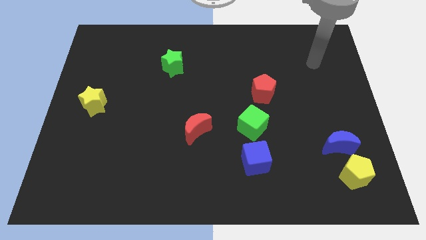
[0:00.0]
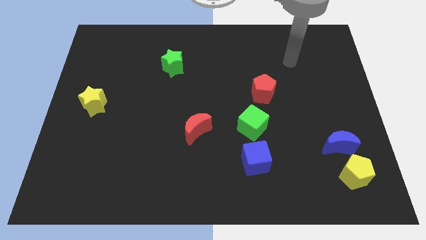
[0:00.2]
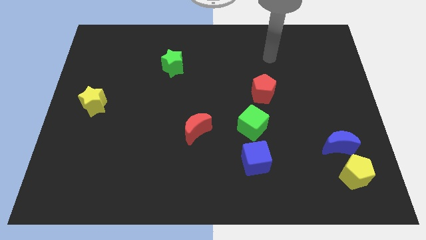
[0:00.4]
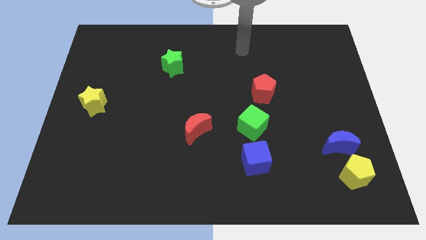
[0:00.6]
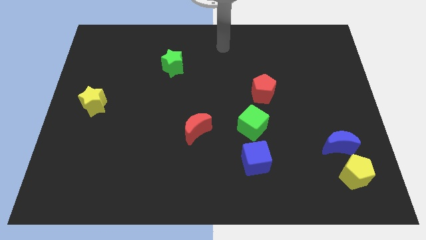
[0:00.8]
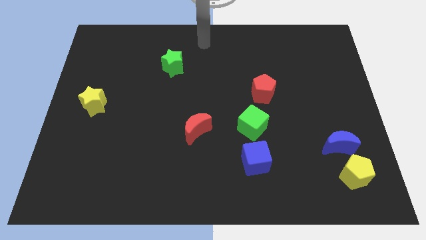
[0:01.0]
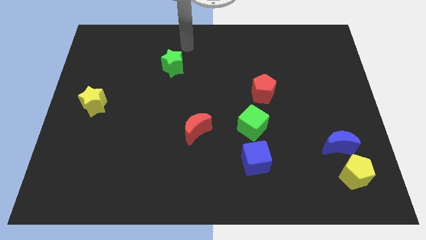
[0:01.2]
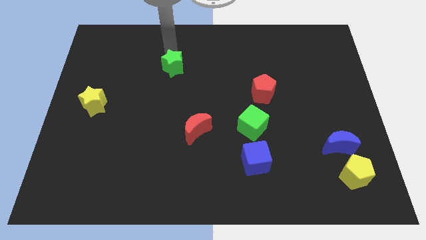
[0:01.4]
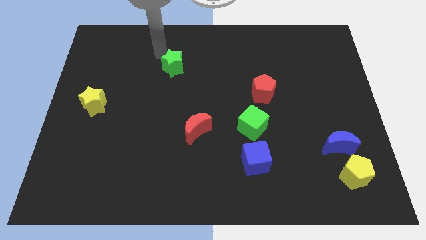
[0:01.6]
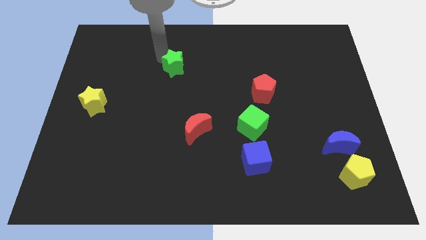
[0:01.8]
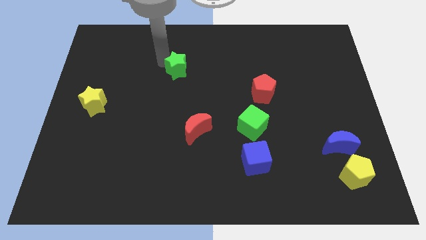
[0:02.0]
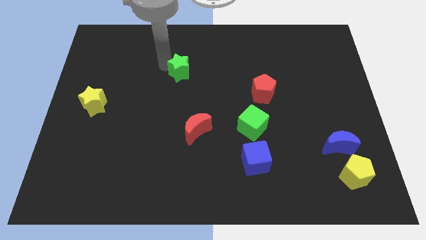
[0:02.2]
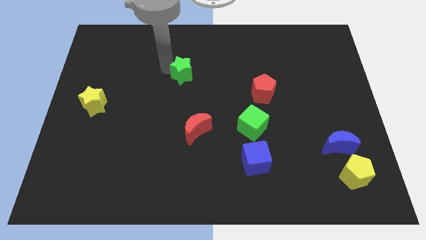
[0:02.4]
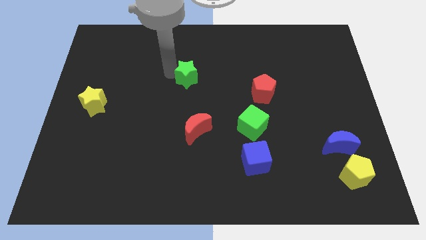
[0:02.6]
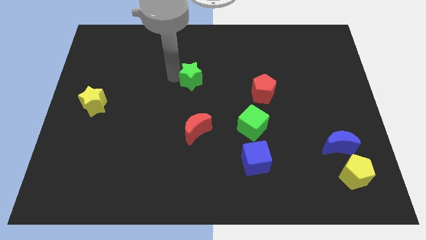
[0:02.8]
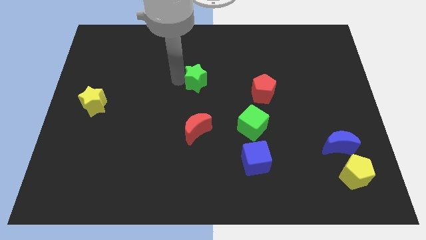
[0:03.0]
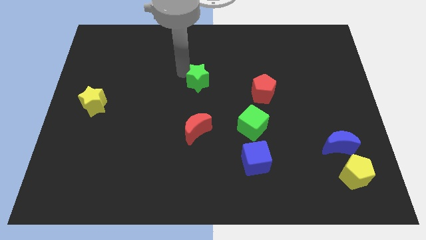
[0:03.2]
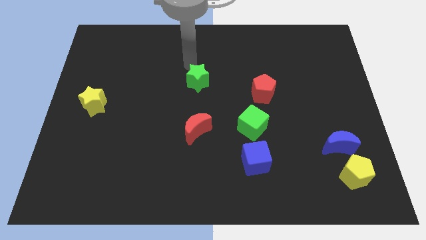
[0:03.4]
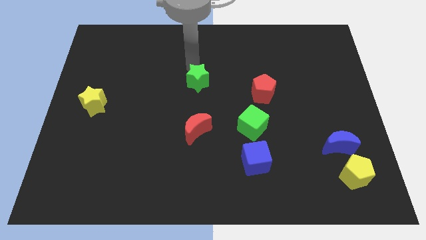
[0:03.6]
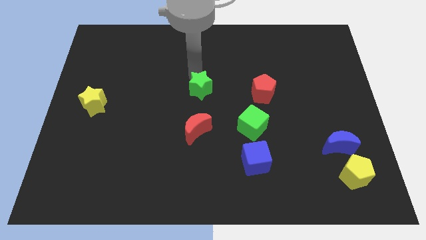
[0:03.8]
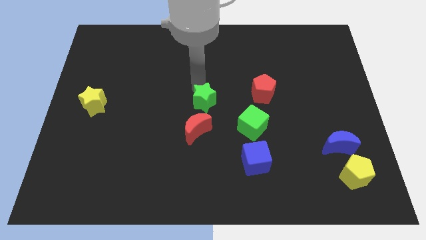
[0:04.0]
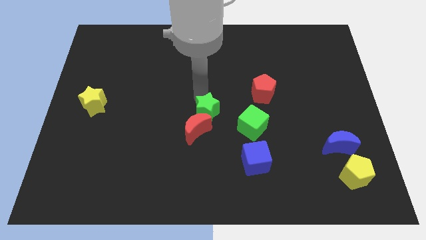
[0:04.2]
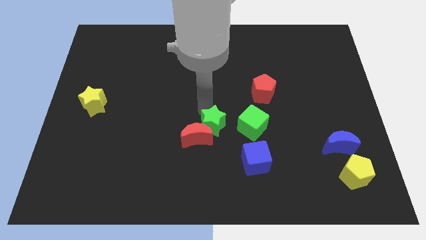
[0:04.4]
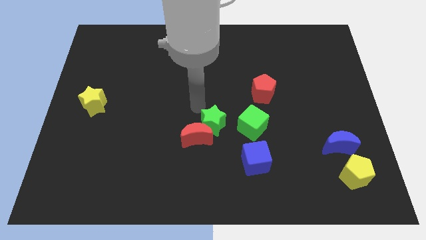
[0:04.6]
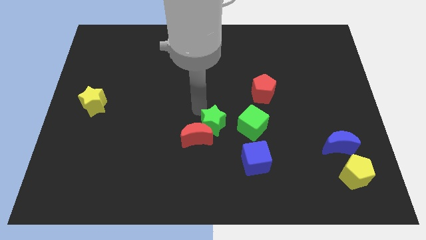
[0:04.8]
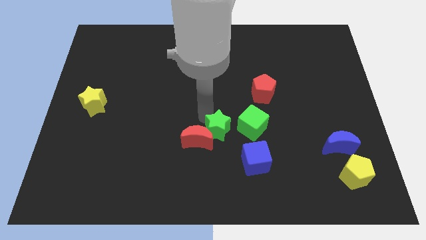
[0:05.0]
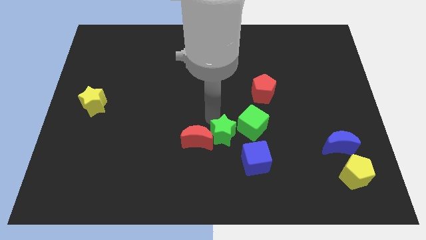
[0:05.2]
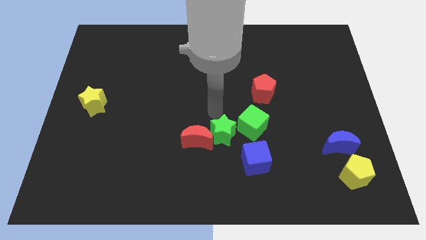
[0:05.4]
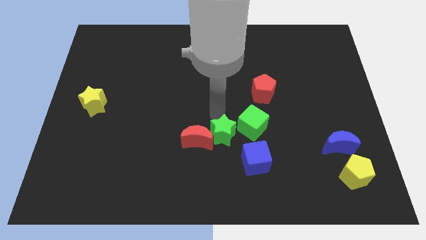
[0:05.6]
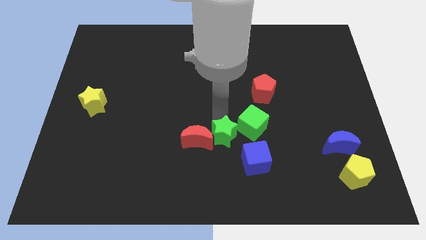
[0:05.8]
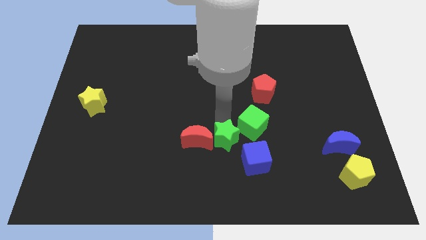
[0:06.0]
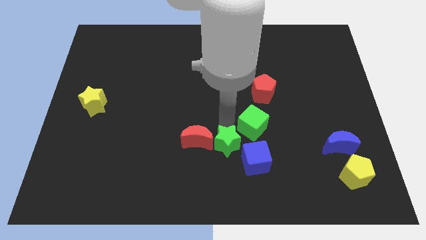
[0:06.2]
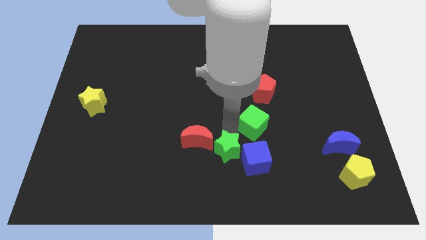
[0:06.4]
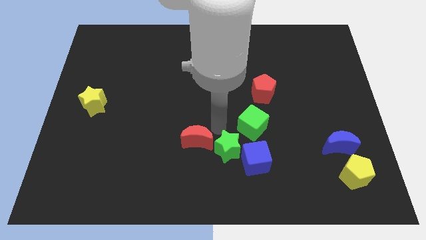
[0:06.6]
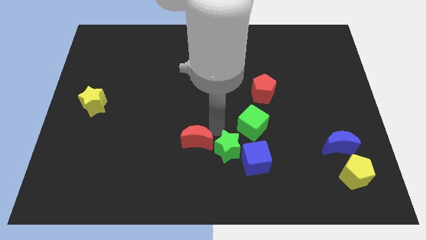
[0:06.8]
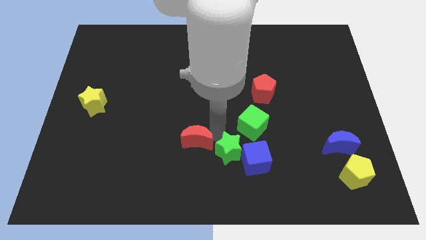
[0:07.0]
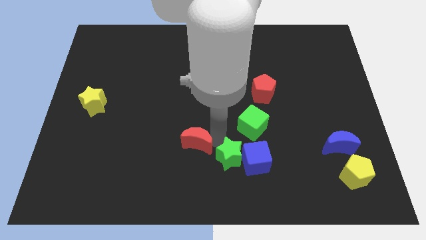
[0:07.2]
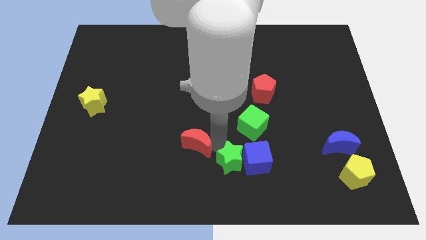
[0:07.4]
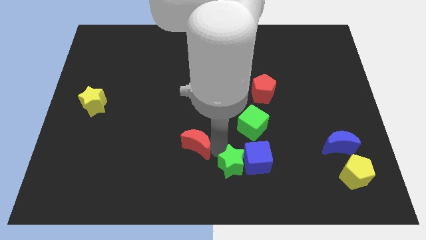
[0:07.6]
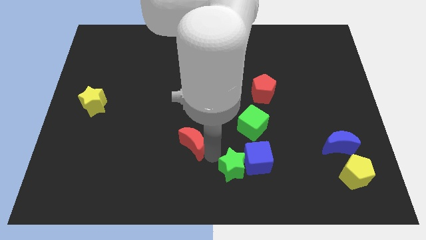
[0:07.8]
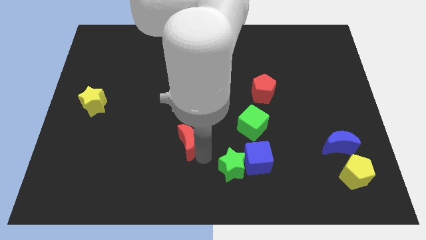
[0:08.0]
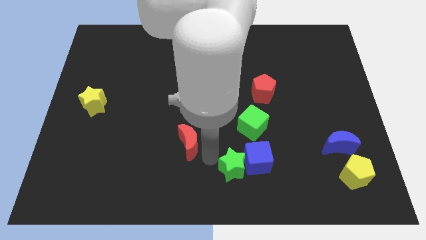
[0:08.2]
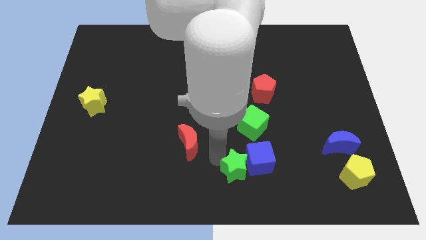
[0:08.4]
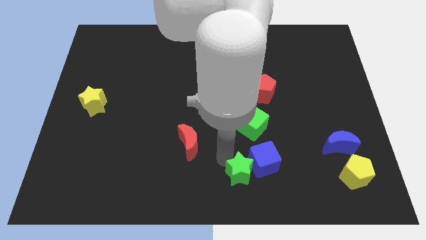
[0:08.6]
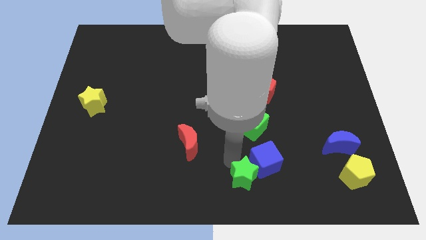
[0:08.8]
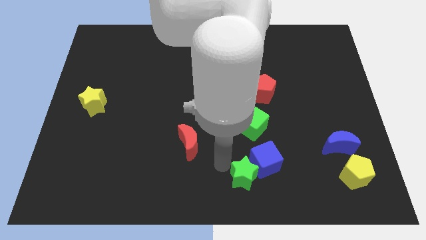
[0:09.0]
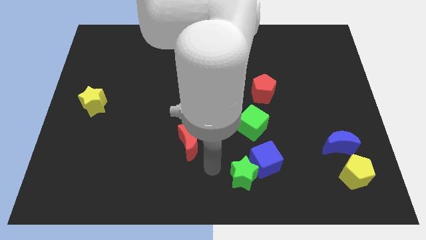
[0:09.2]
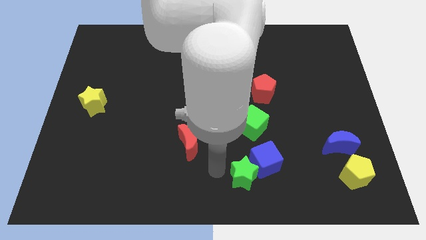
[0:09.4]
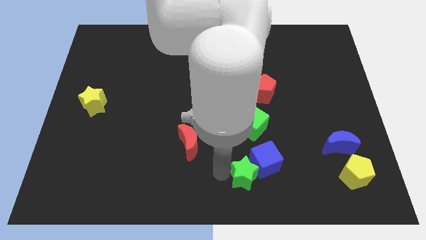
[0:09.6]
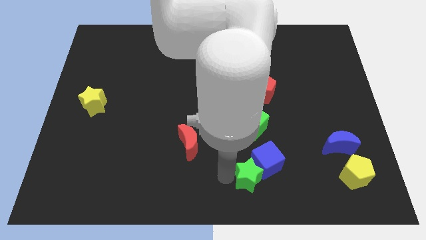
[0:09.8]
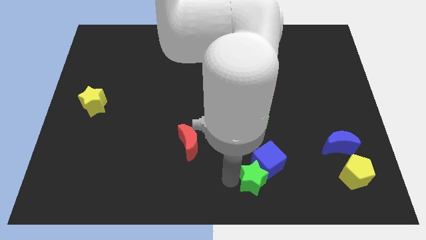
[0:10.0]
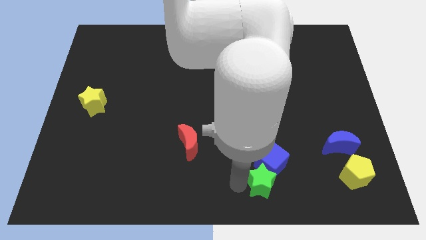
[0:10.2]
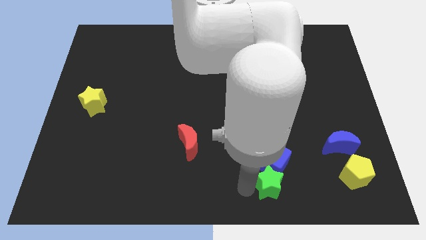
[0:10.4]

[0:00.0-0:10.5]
push the green star to the bottom right side of the blue cube

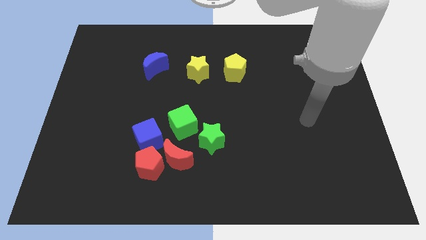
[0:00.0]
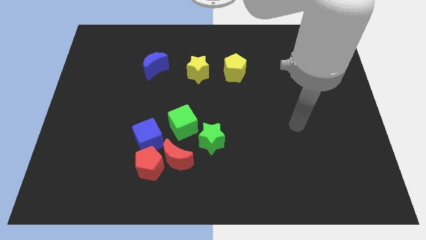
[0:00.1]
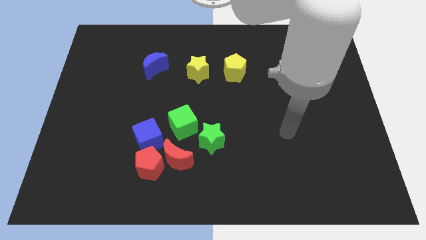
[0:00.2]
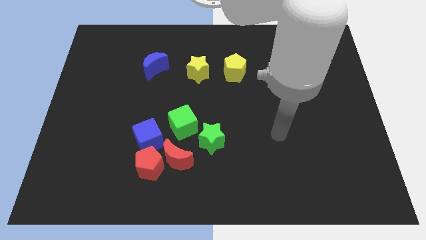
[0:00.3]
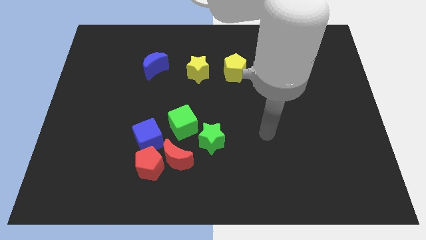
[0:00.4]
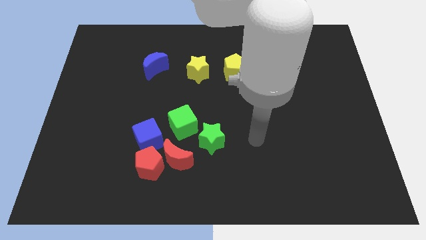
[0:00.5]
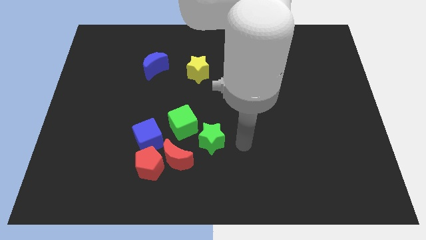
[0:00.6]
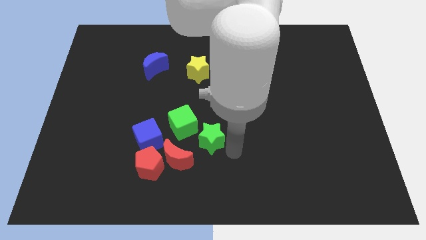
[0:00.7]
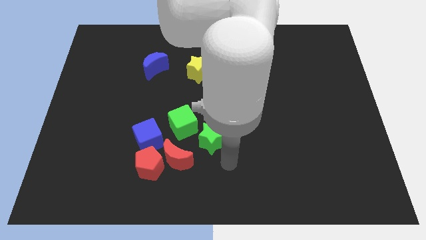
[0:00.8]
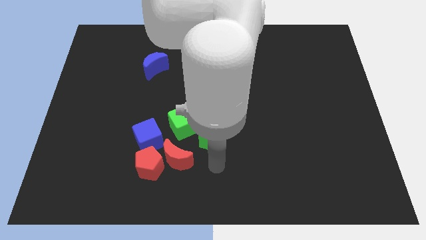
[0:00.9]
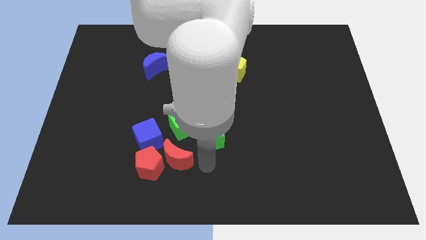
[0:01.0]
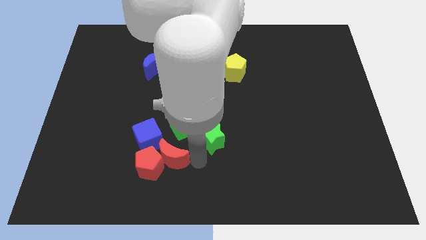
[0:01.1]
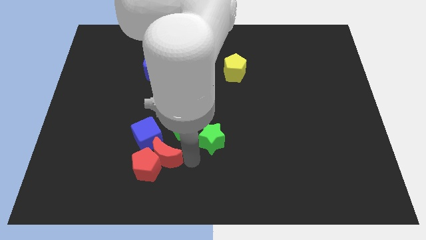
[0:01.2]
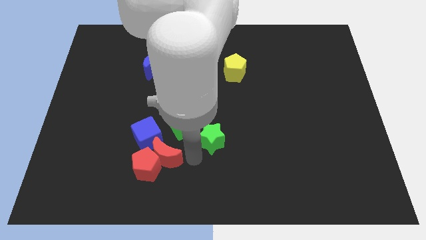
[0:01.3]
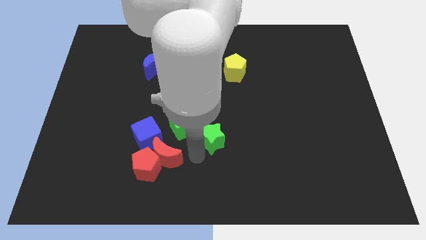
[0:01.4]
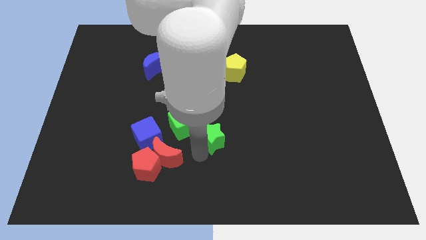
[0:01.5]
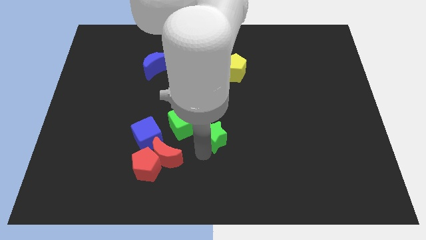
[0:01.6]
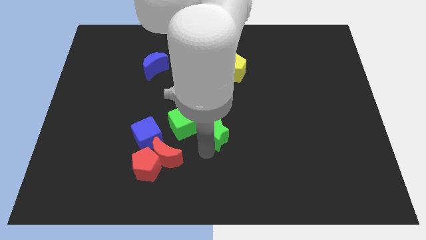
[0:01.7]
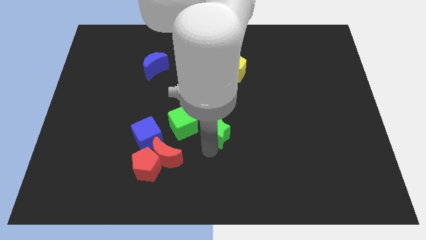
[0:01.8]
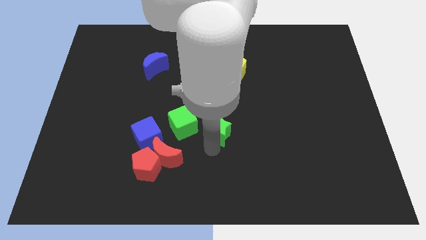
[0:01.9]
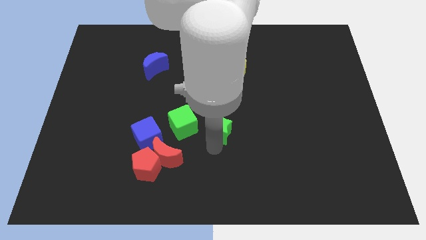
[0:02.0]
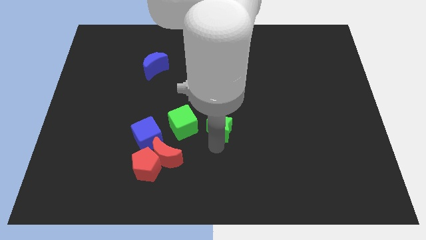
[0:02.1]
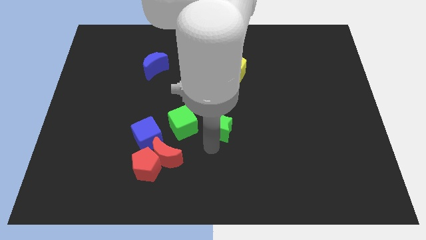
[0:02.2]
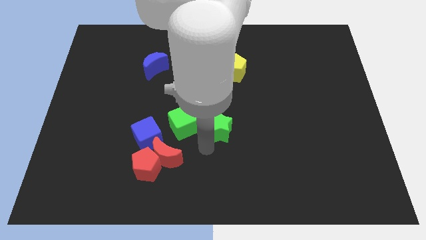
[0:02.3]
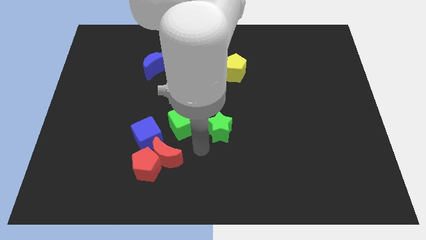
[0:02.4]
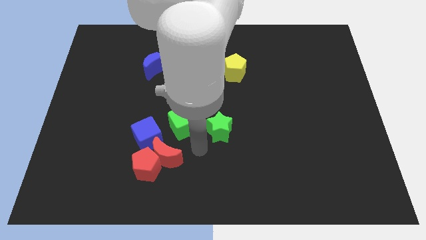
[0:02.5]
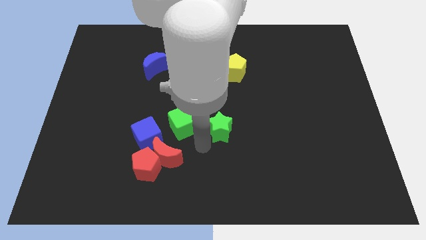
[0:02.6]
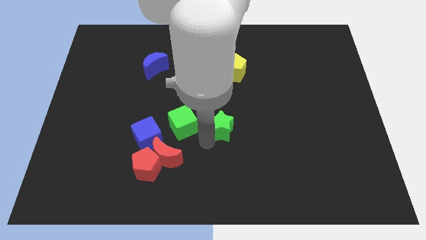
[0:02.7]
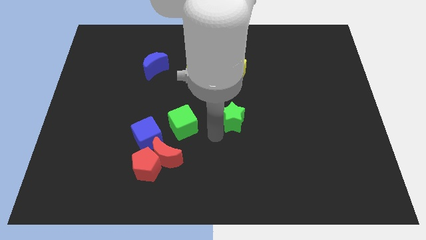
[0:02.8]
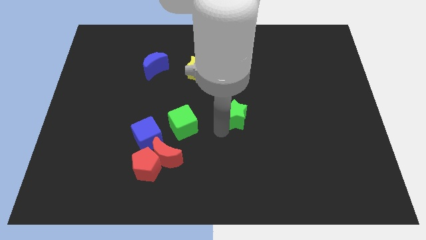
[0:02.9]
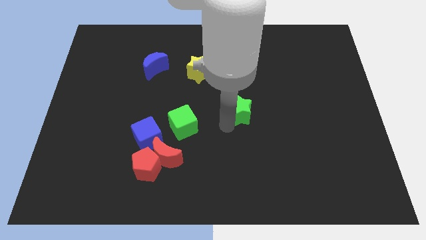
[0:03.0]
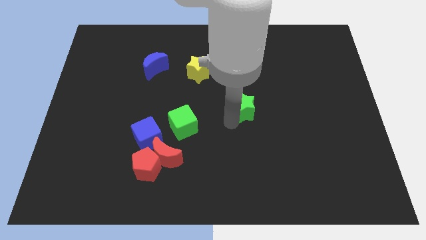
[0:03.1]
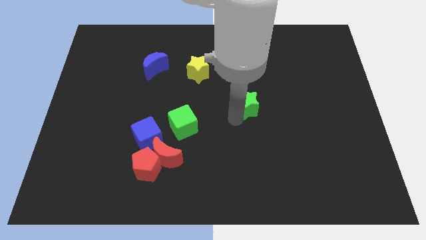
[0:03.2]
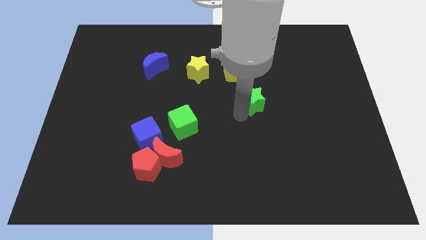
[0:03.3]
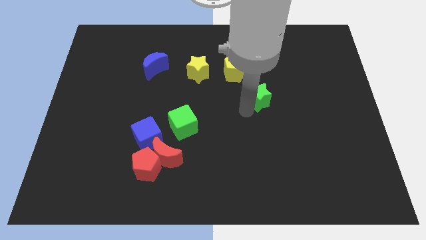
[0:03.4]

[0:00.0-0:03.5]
slide the green star to the bottom right side of the yellow pentagon
